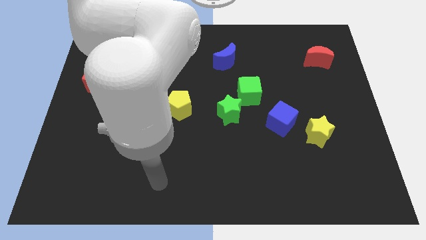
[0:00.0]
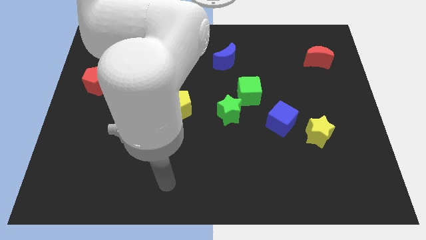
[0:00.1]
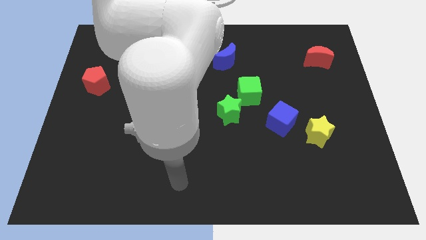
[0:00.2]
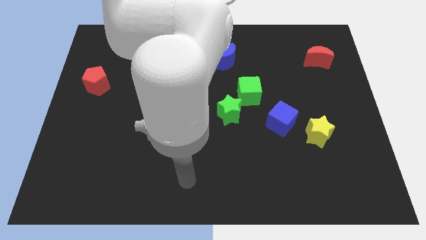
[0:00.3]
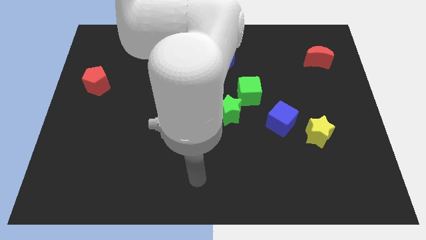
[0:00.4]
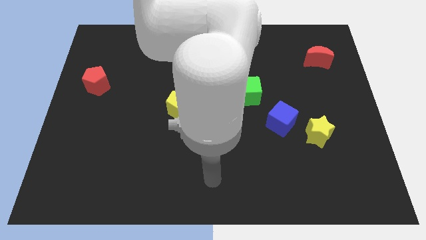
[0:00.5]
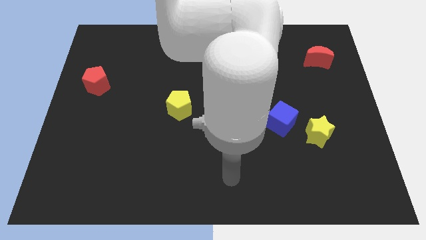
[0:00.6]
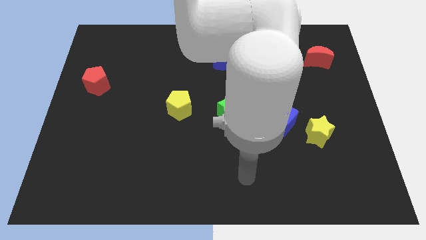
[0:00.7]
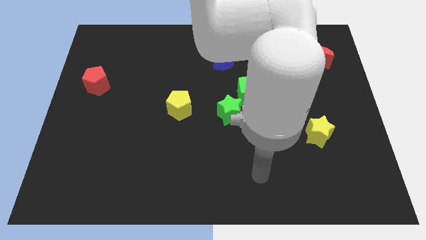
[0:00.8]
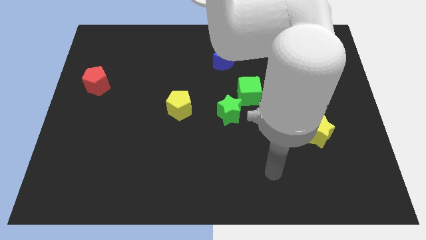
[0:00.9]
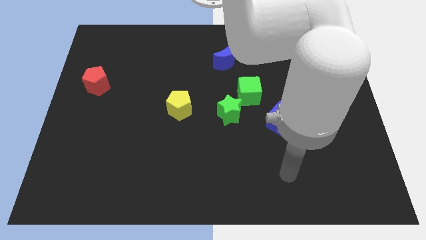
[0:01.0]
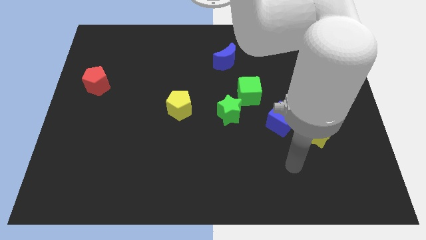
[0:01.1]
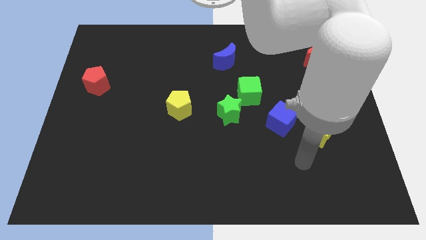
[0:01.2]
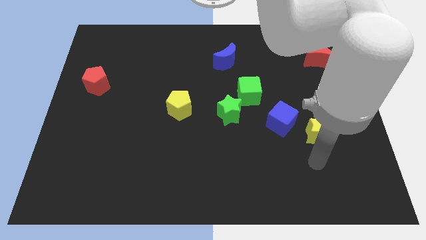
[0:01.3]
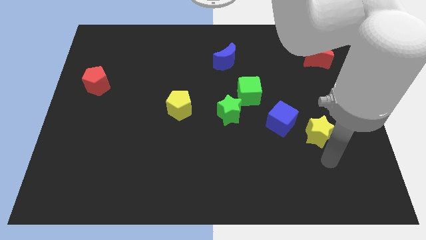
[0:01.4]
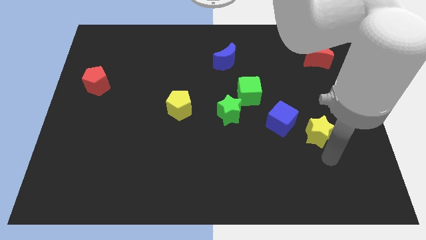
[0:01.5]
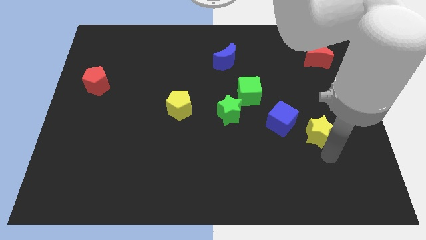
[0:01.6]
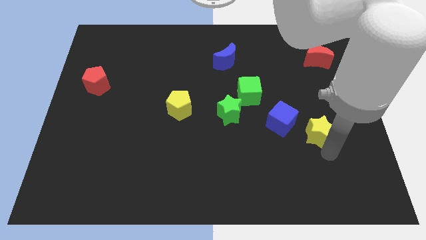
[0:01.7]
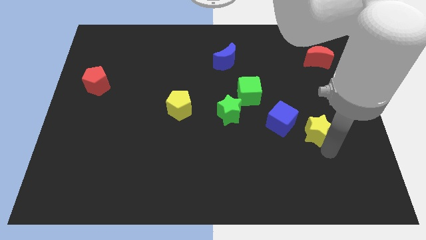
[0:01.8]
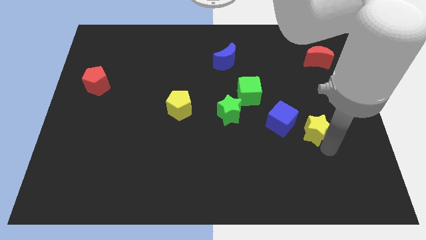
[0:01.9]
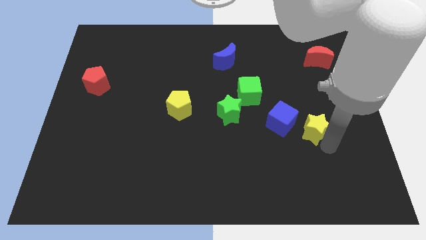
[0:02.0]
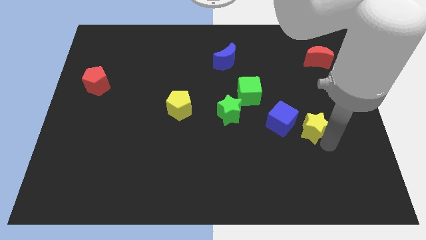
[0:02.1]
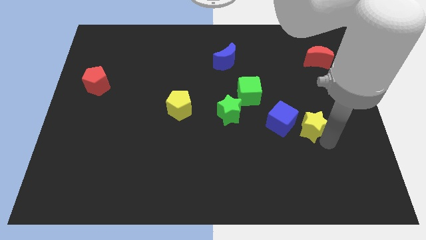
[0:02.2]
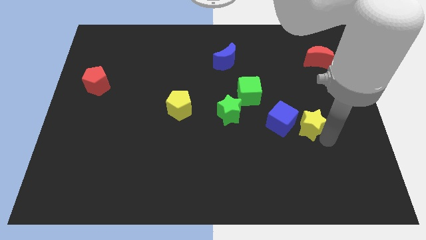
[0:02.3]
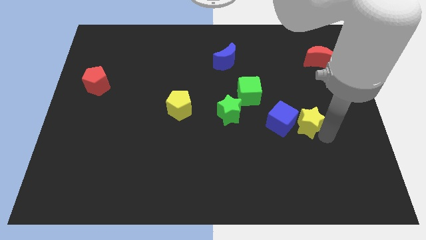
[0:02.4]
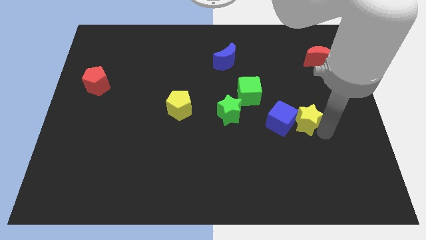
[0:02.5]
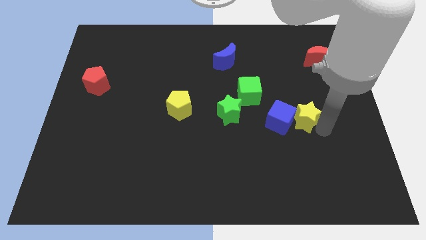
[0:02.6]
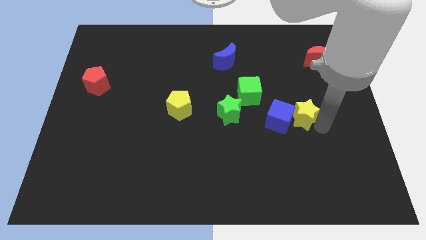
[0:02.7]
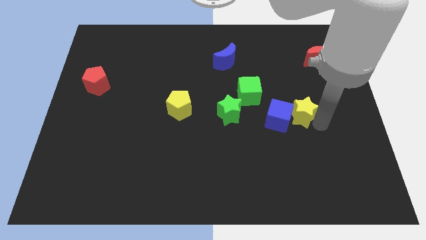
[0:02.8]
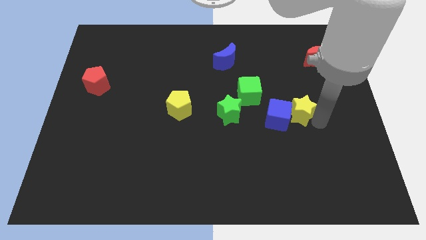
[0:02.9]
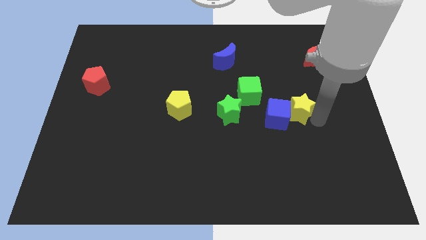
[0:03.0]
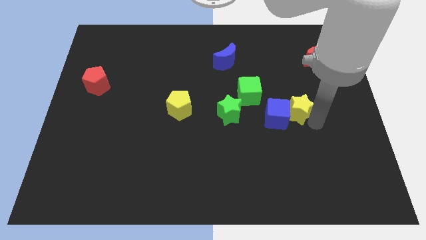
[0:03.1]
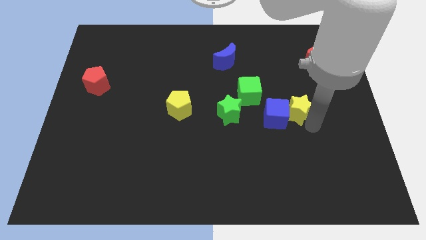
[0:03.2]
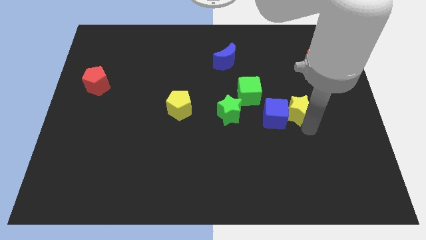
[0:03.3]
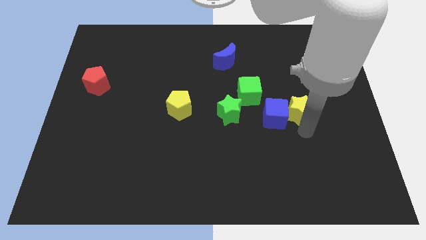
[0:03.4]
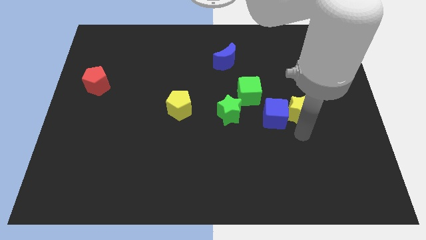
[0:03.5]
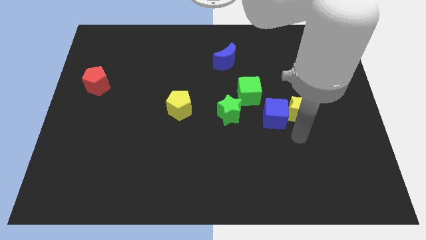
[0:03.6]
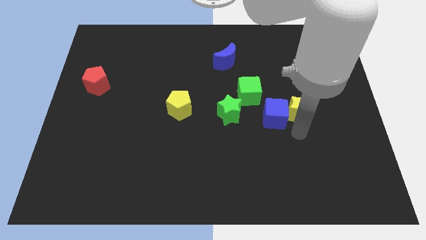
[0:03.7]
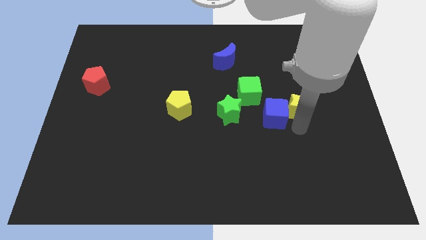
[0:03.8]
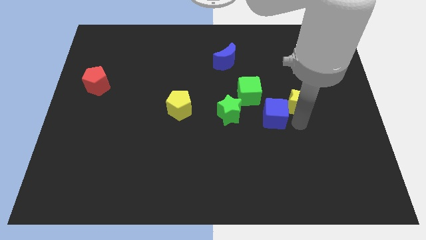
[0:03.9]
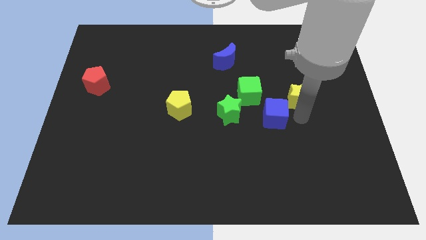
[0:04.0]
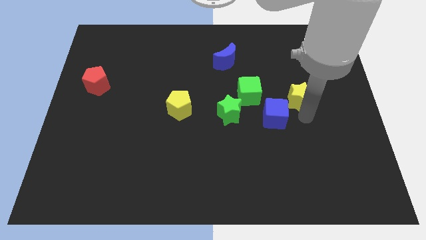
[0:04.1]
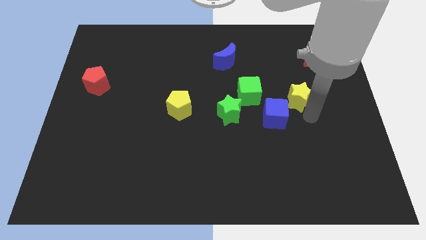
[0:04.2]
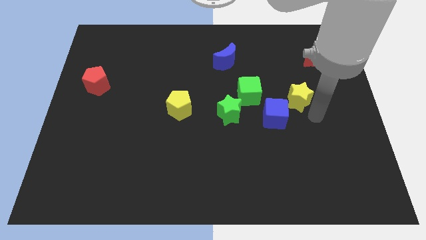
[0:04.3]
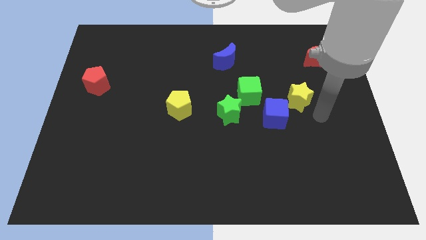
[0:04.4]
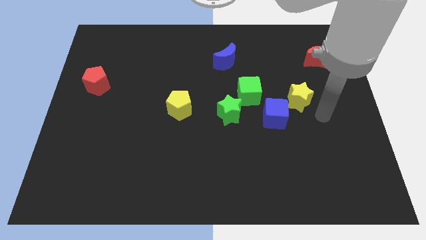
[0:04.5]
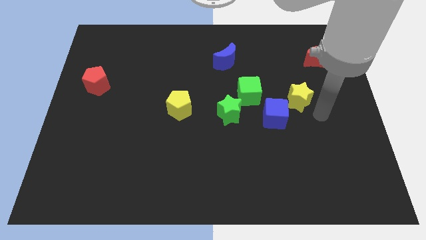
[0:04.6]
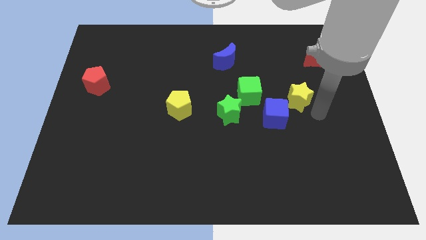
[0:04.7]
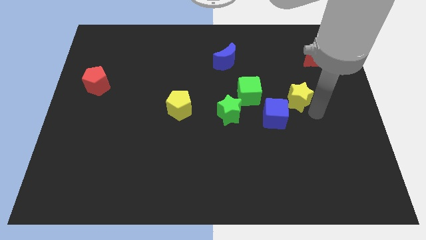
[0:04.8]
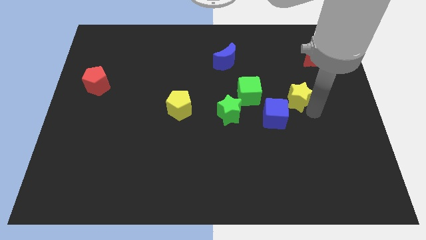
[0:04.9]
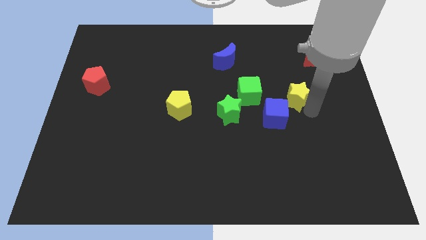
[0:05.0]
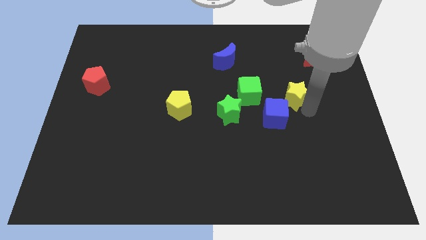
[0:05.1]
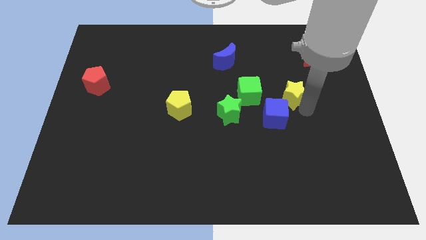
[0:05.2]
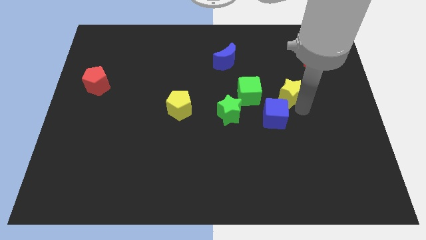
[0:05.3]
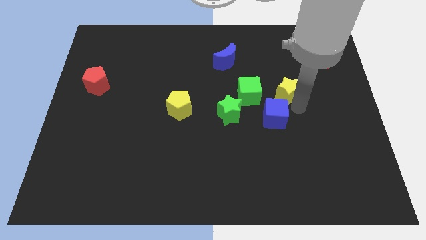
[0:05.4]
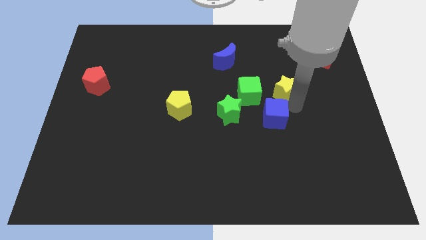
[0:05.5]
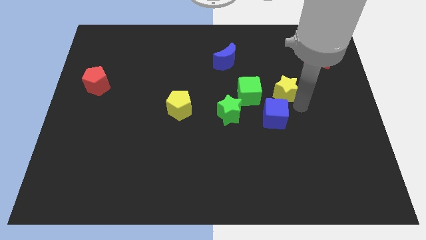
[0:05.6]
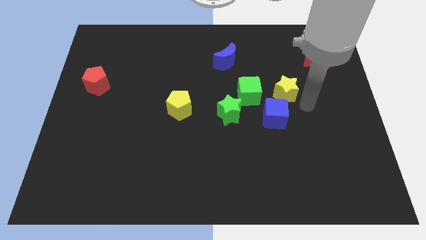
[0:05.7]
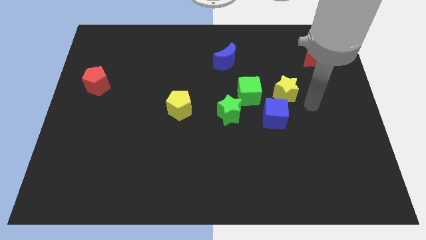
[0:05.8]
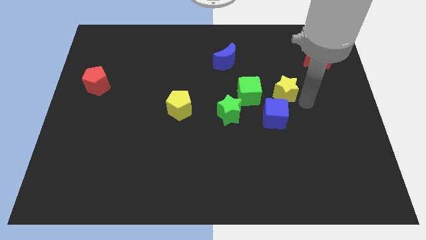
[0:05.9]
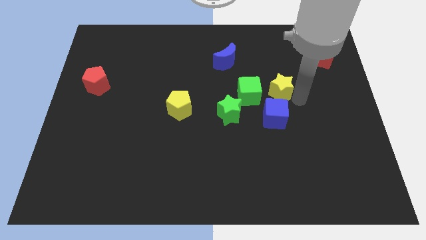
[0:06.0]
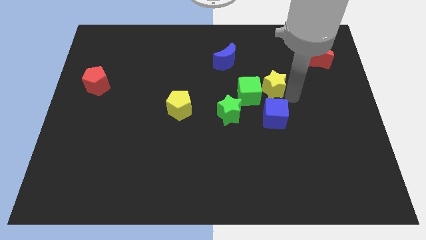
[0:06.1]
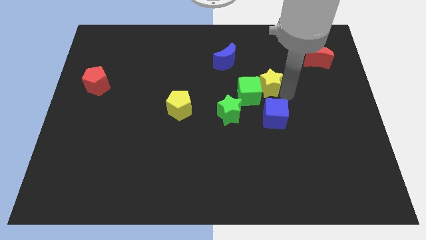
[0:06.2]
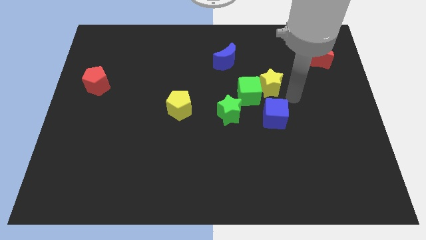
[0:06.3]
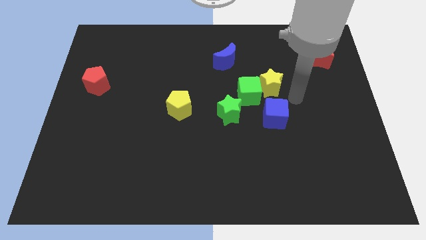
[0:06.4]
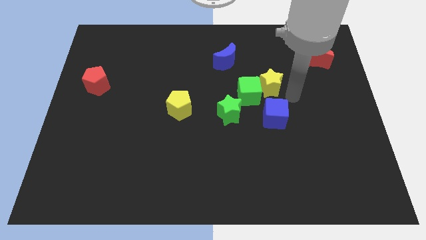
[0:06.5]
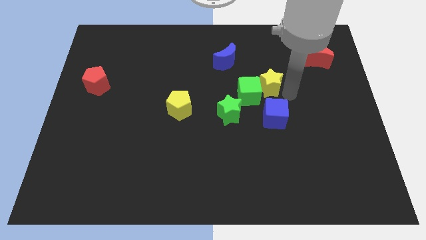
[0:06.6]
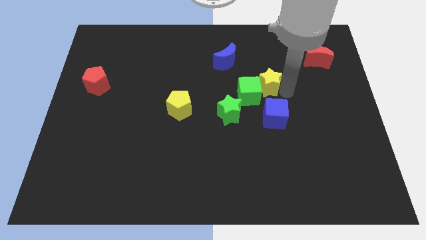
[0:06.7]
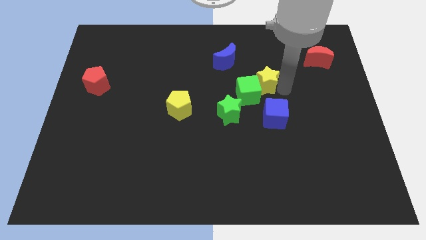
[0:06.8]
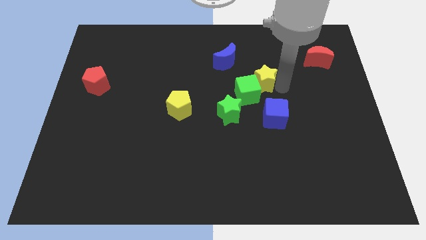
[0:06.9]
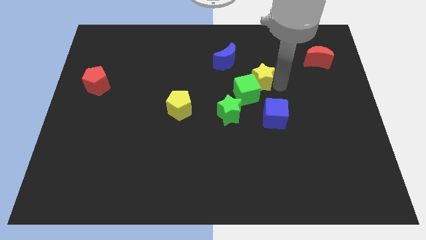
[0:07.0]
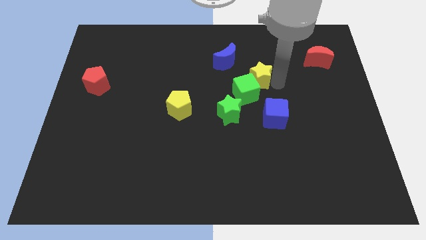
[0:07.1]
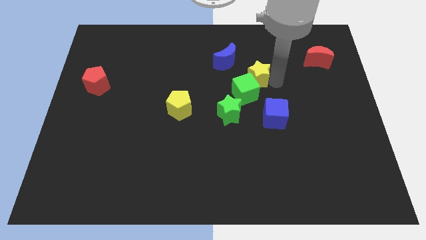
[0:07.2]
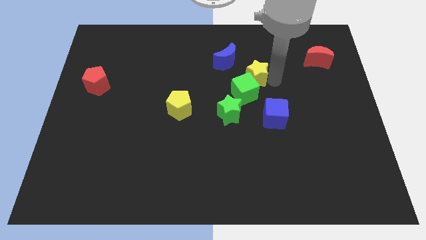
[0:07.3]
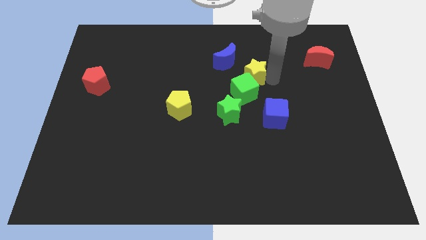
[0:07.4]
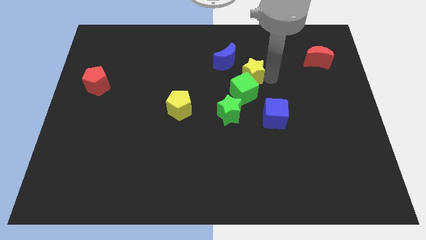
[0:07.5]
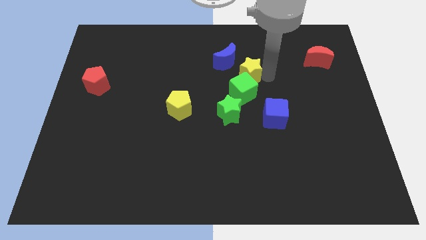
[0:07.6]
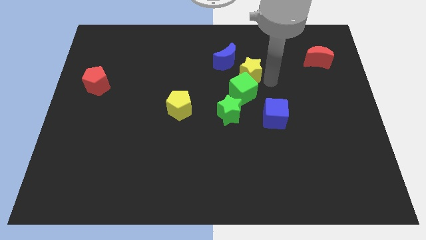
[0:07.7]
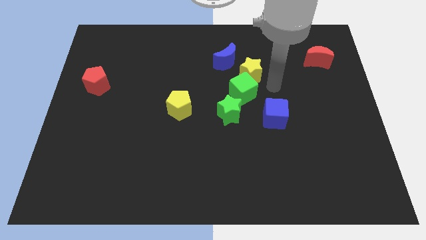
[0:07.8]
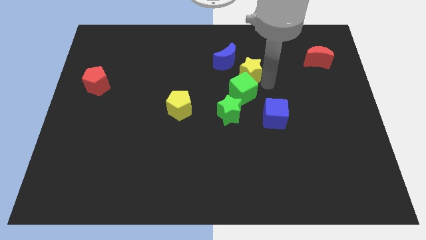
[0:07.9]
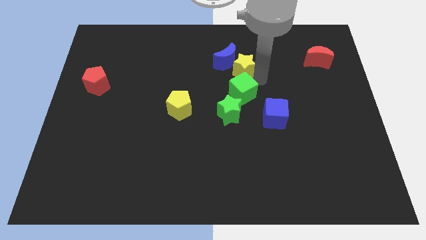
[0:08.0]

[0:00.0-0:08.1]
move the yellow star to the blue moon
